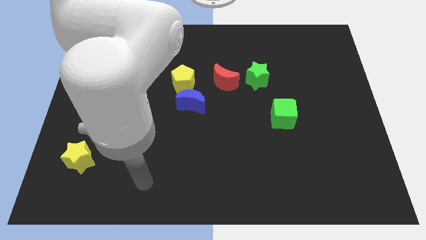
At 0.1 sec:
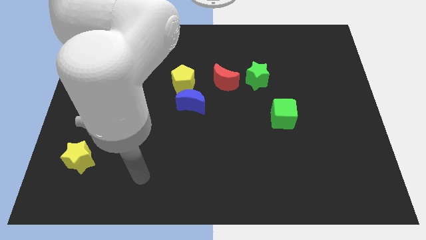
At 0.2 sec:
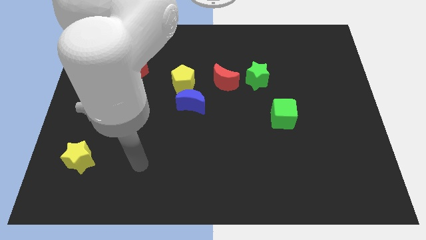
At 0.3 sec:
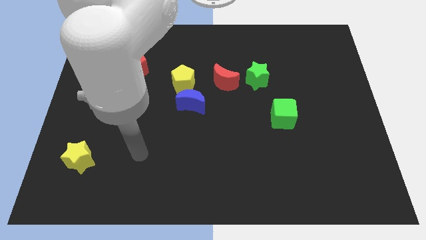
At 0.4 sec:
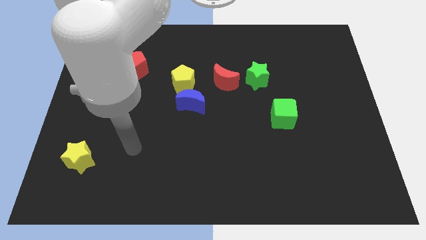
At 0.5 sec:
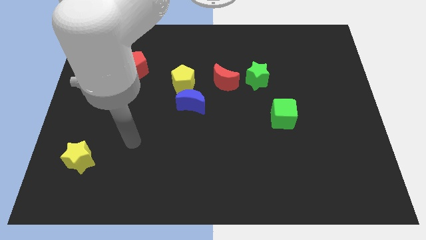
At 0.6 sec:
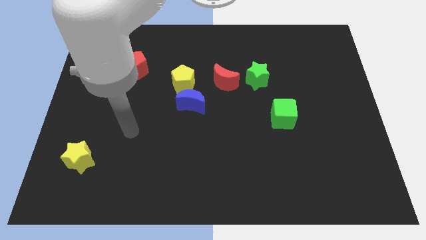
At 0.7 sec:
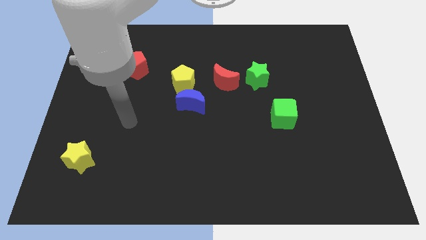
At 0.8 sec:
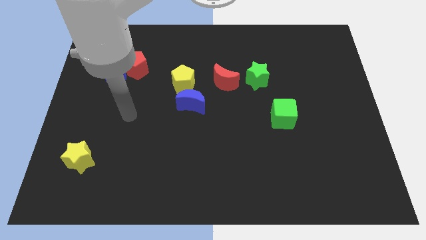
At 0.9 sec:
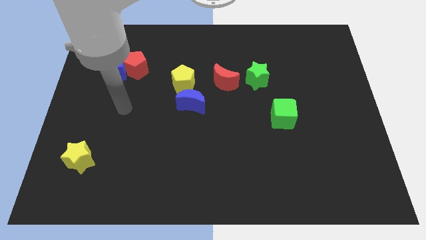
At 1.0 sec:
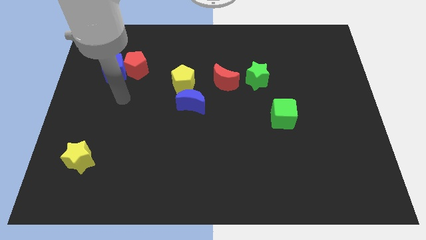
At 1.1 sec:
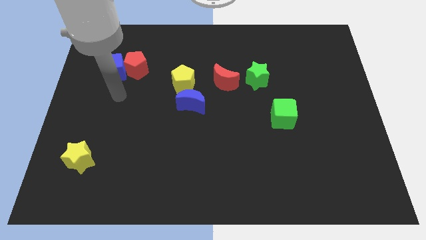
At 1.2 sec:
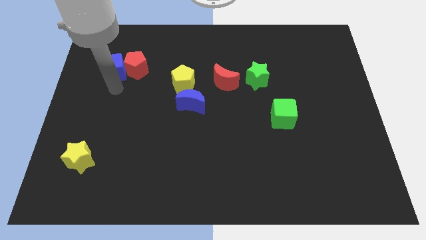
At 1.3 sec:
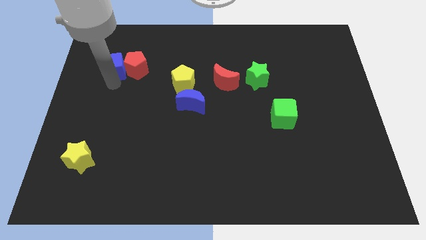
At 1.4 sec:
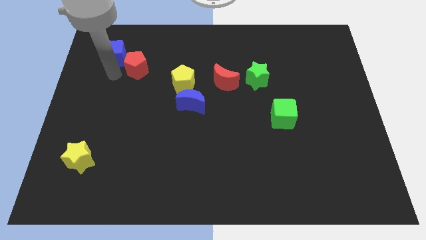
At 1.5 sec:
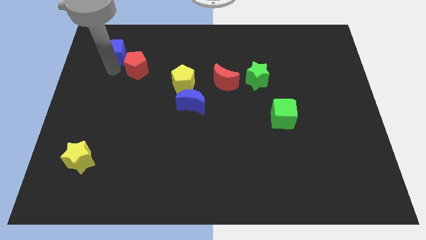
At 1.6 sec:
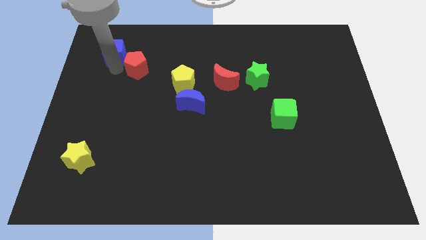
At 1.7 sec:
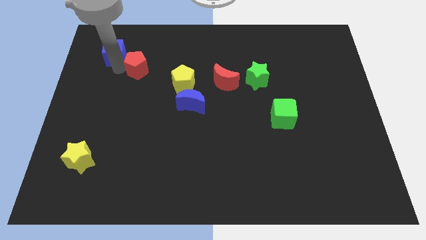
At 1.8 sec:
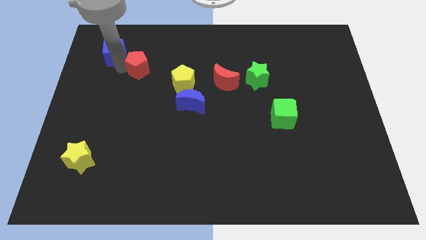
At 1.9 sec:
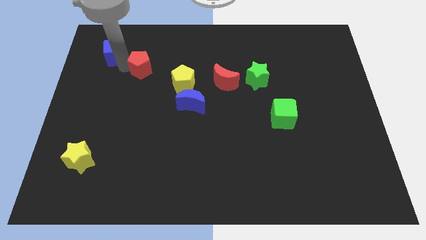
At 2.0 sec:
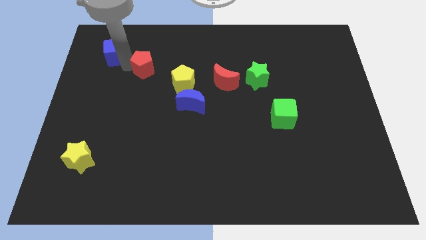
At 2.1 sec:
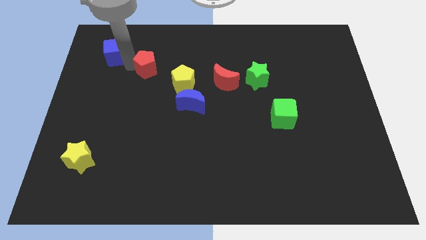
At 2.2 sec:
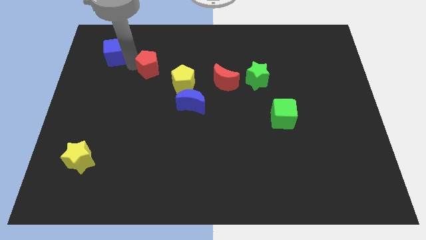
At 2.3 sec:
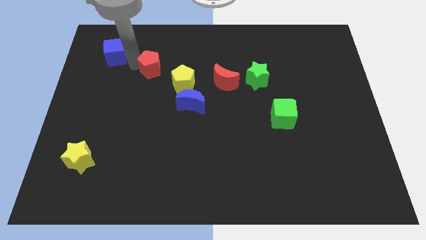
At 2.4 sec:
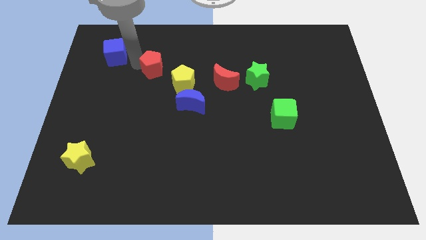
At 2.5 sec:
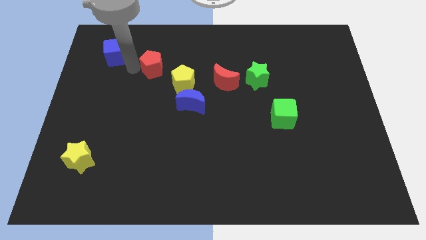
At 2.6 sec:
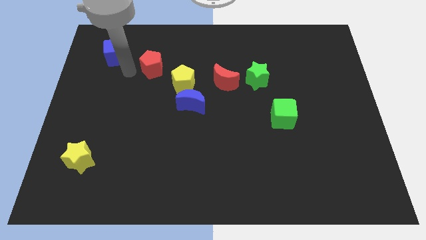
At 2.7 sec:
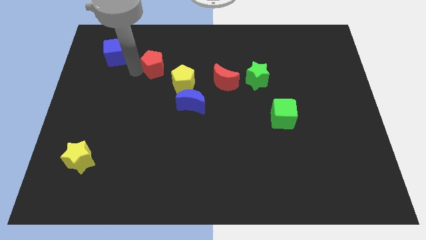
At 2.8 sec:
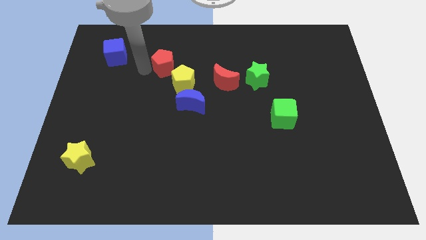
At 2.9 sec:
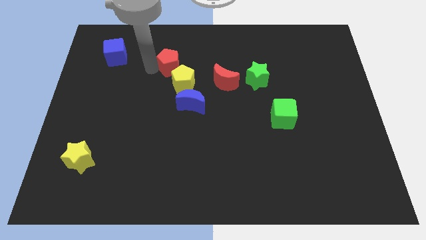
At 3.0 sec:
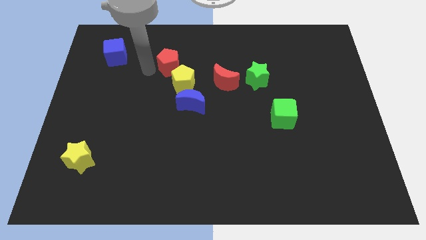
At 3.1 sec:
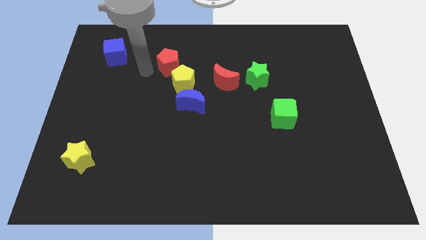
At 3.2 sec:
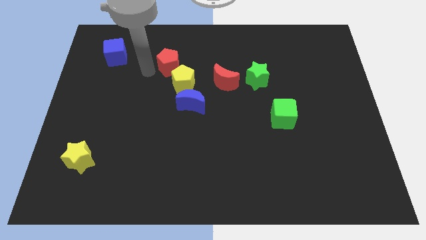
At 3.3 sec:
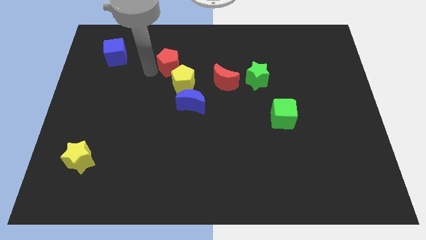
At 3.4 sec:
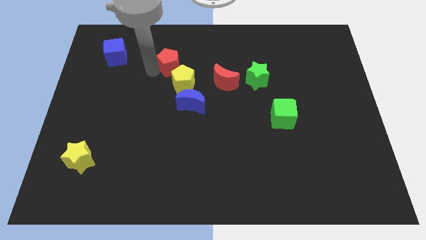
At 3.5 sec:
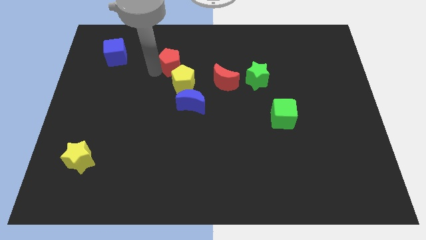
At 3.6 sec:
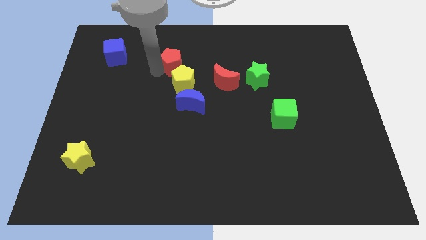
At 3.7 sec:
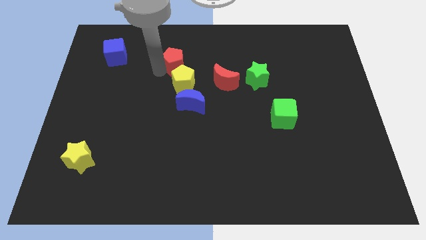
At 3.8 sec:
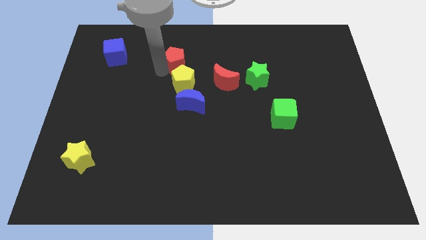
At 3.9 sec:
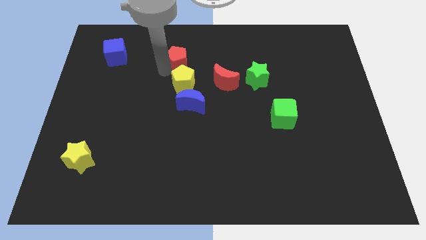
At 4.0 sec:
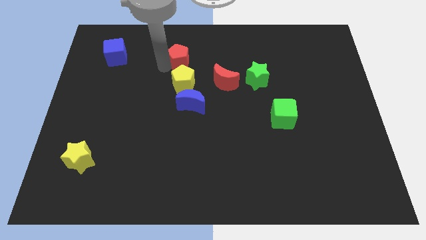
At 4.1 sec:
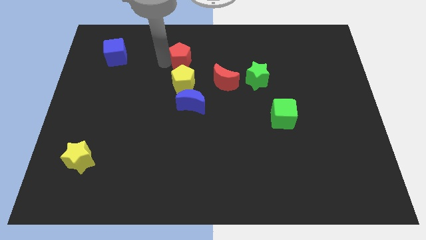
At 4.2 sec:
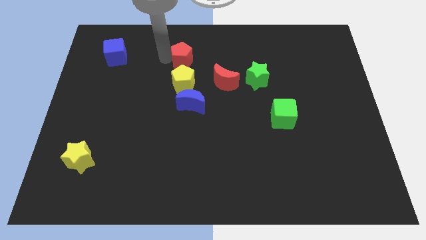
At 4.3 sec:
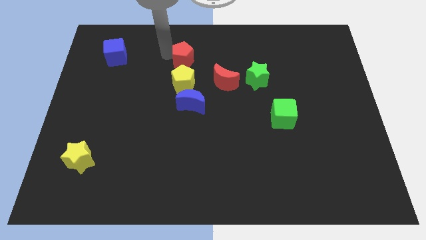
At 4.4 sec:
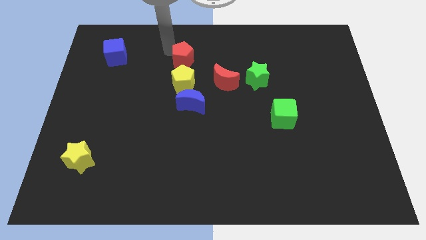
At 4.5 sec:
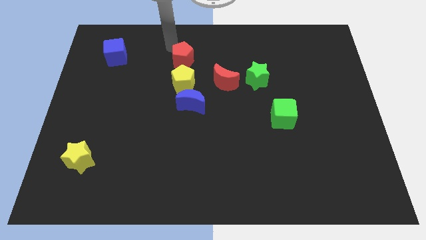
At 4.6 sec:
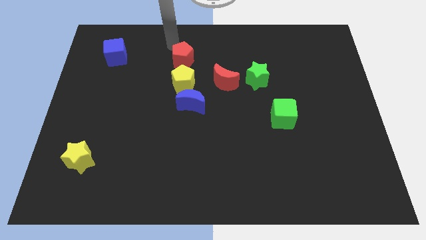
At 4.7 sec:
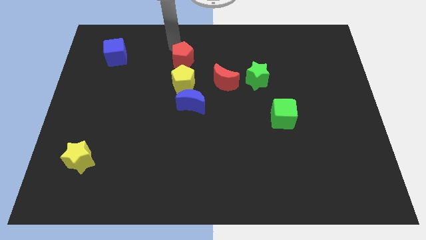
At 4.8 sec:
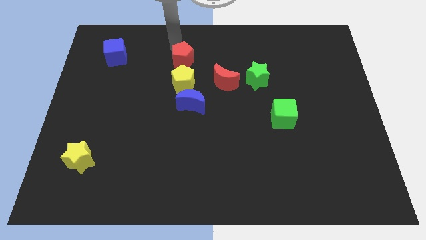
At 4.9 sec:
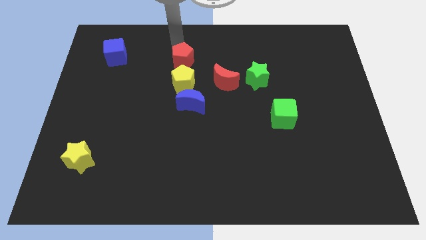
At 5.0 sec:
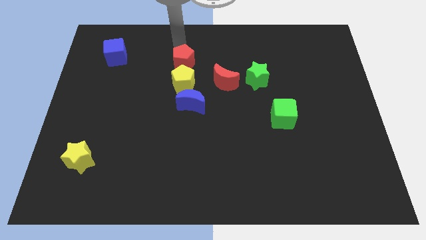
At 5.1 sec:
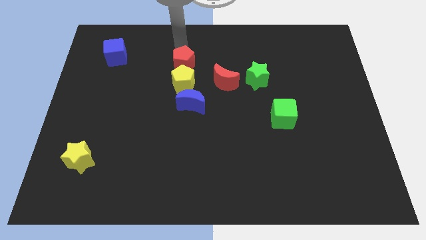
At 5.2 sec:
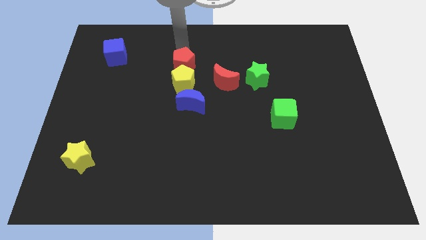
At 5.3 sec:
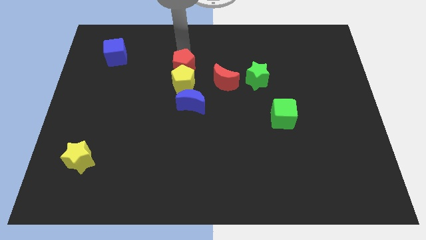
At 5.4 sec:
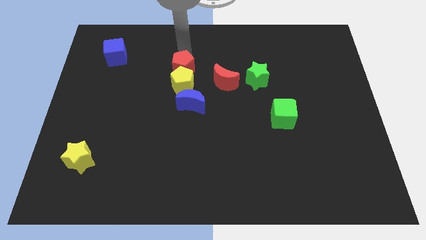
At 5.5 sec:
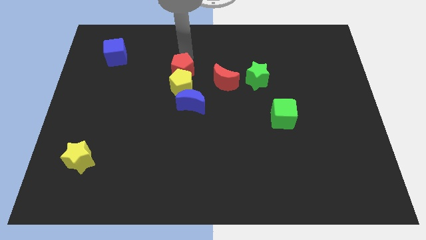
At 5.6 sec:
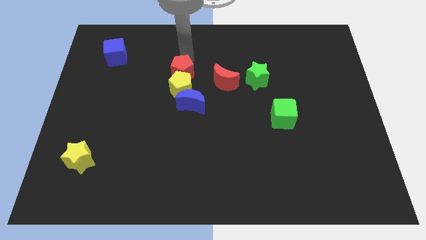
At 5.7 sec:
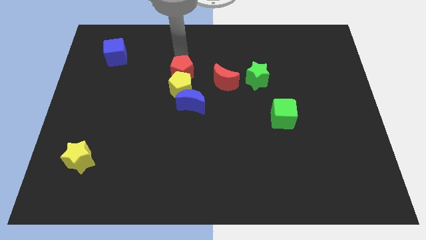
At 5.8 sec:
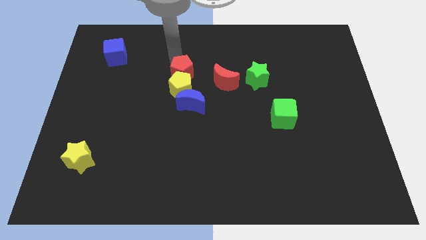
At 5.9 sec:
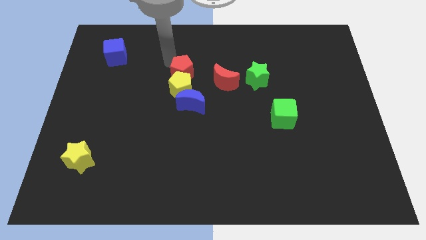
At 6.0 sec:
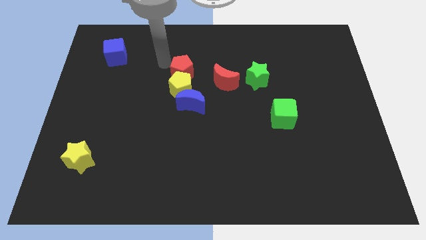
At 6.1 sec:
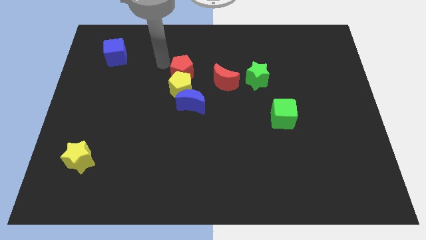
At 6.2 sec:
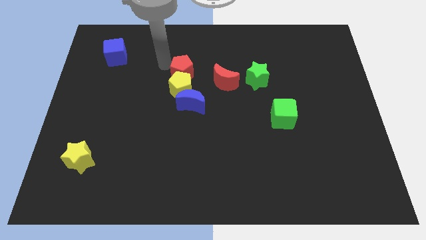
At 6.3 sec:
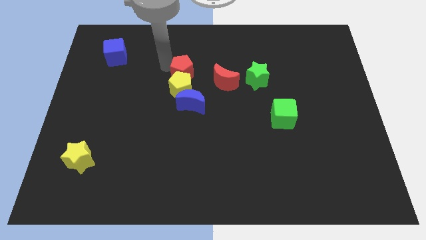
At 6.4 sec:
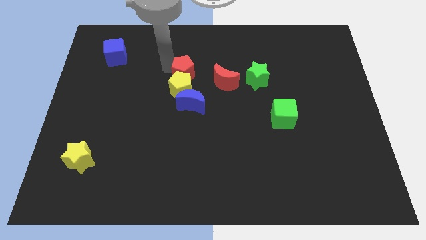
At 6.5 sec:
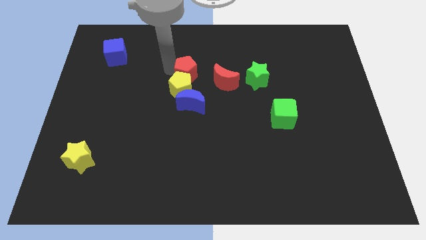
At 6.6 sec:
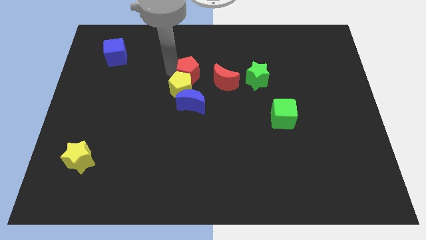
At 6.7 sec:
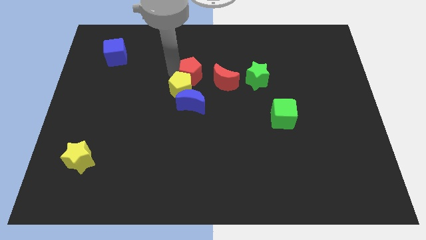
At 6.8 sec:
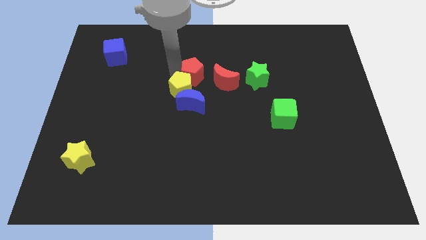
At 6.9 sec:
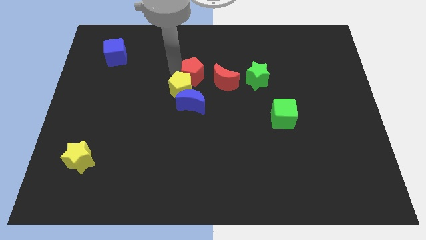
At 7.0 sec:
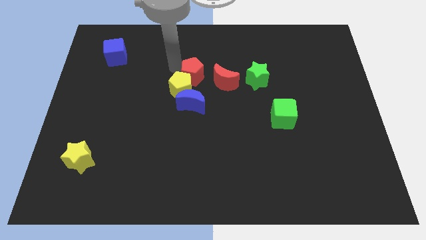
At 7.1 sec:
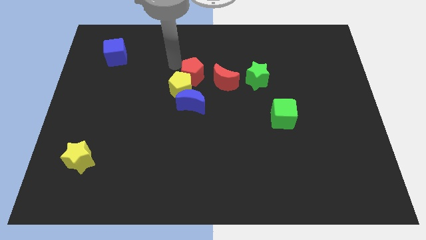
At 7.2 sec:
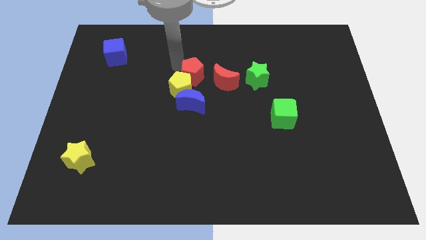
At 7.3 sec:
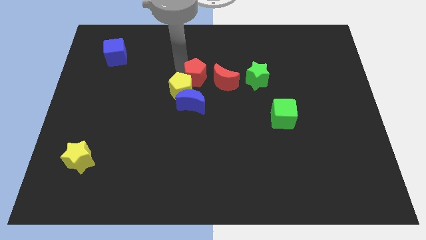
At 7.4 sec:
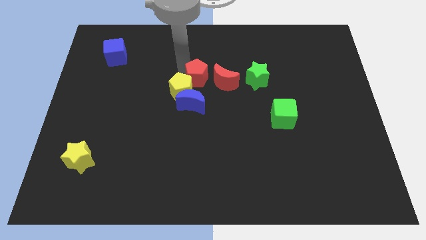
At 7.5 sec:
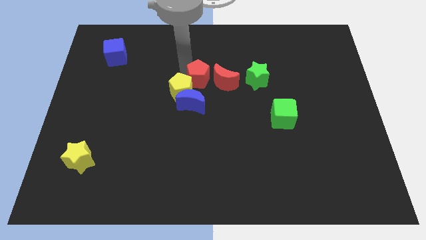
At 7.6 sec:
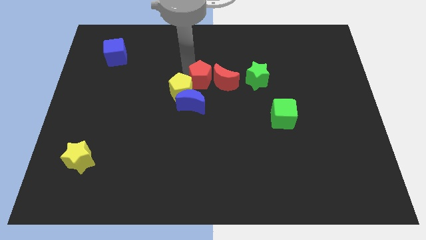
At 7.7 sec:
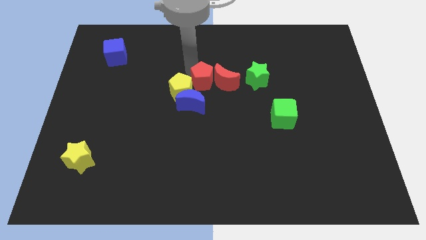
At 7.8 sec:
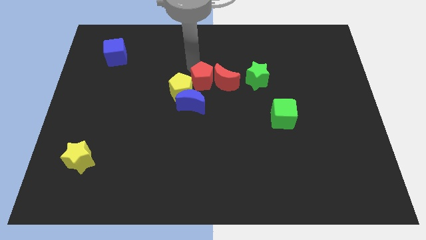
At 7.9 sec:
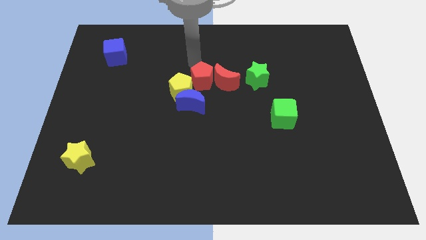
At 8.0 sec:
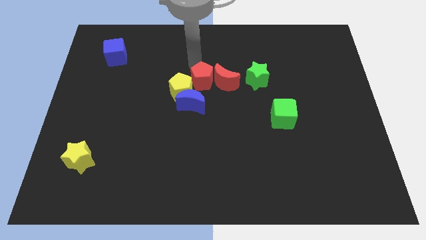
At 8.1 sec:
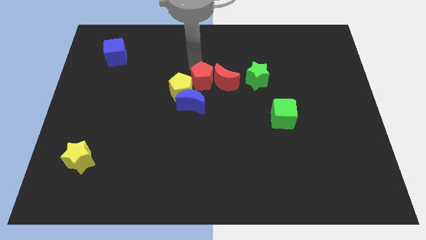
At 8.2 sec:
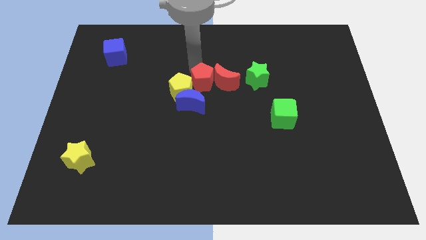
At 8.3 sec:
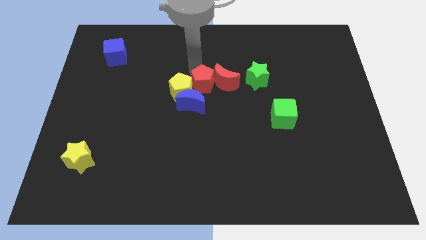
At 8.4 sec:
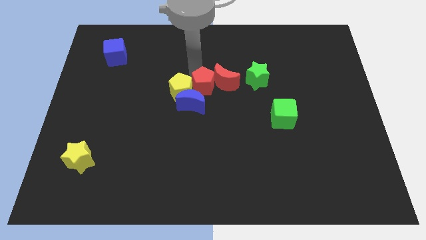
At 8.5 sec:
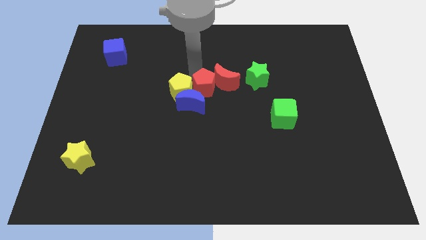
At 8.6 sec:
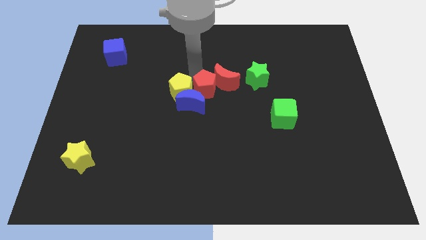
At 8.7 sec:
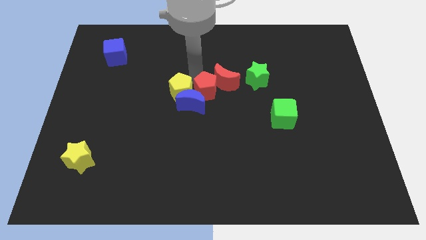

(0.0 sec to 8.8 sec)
slide the red pentagon to the right of the blue moon
